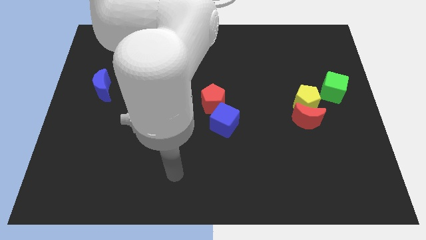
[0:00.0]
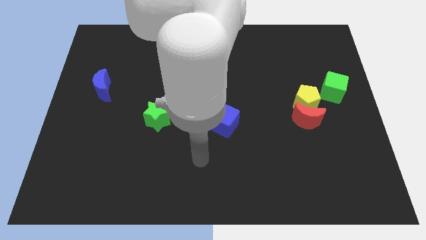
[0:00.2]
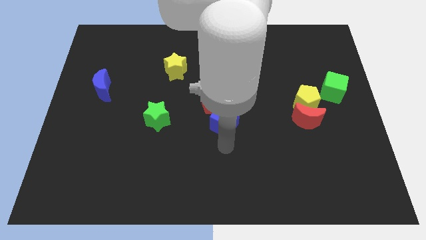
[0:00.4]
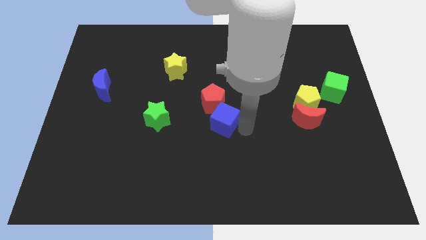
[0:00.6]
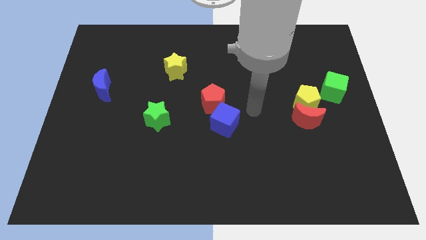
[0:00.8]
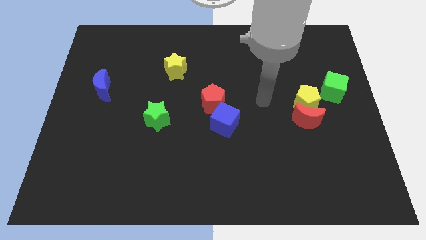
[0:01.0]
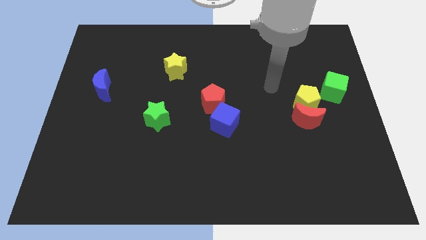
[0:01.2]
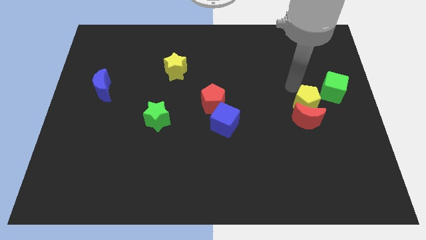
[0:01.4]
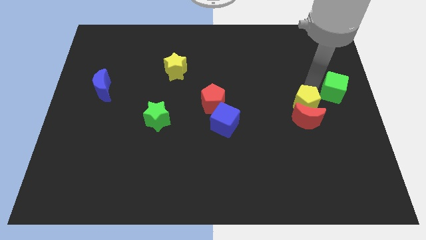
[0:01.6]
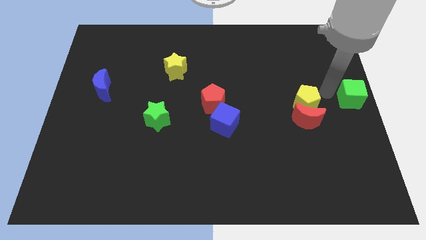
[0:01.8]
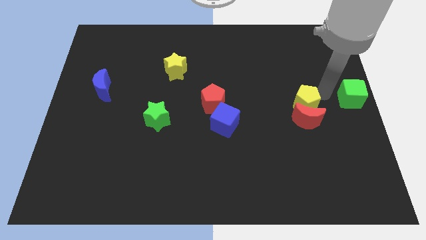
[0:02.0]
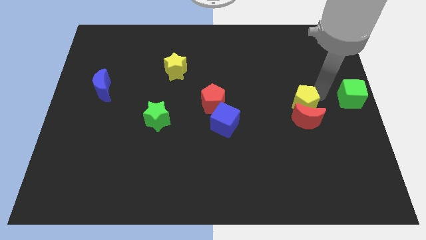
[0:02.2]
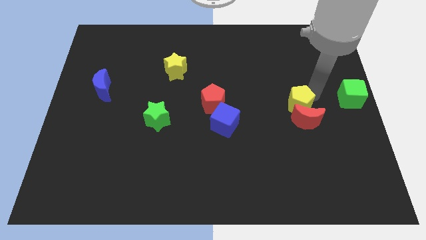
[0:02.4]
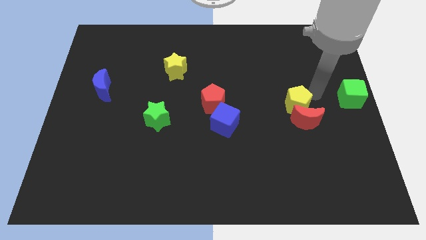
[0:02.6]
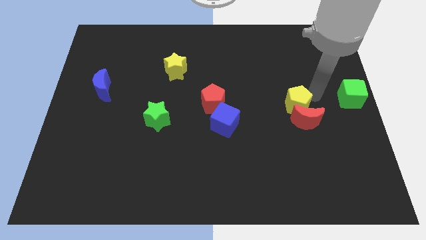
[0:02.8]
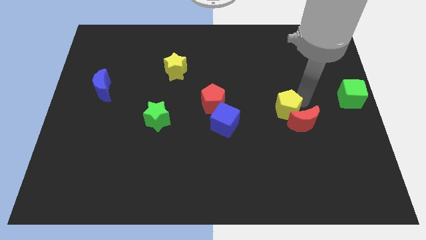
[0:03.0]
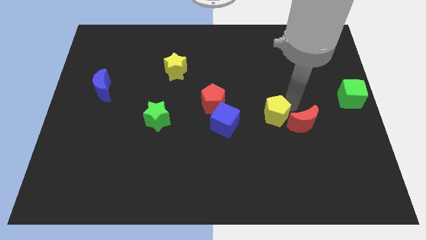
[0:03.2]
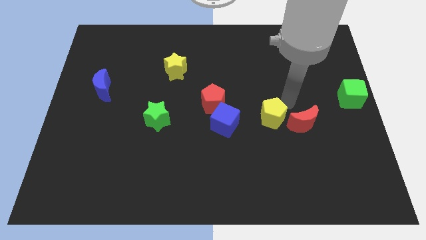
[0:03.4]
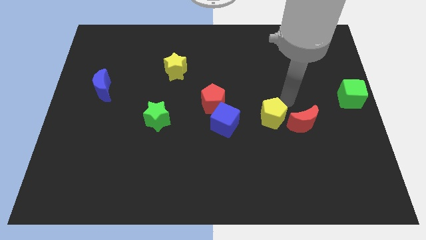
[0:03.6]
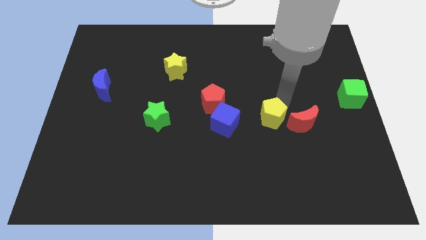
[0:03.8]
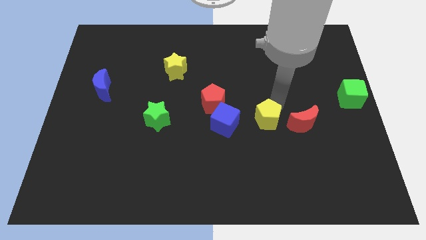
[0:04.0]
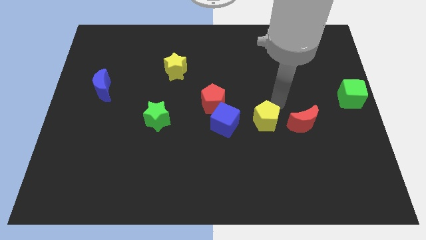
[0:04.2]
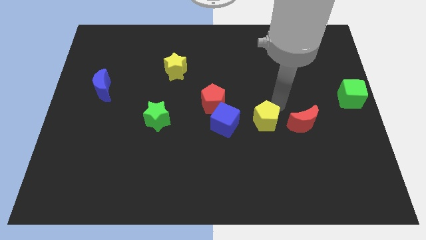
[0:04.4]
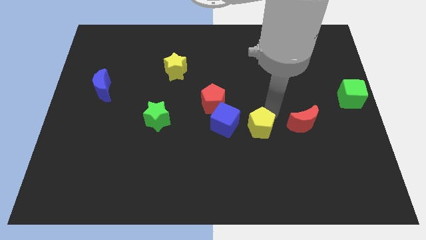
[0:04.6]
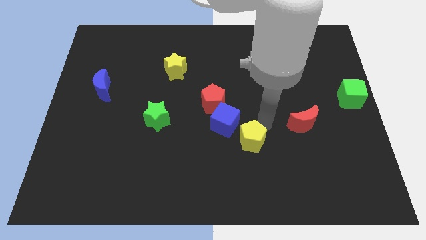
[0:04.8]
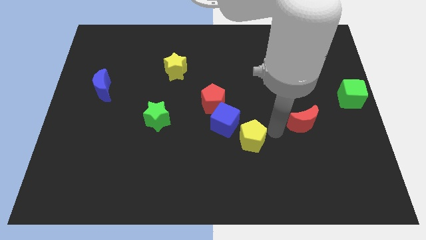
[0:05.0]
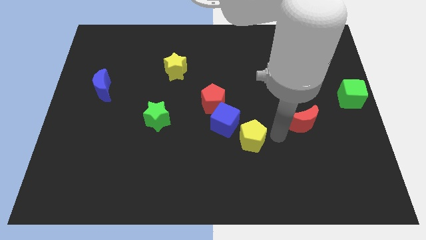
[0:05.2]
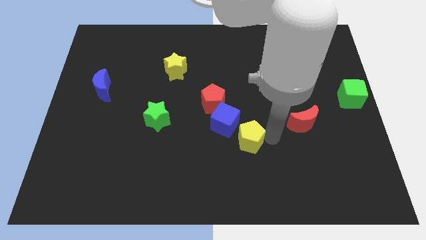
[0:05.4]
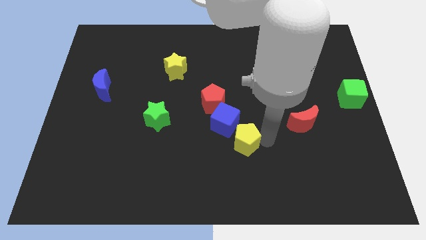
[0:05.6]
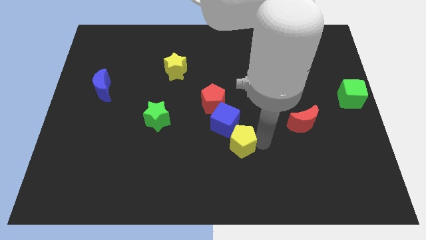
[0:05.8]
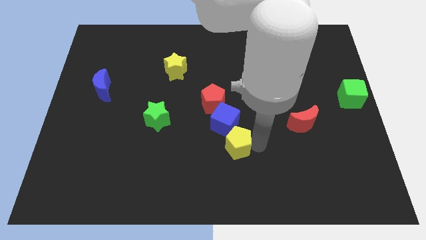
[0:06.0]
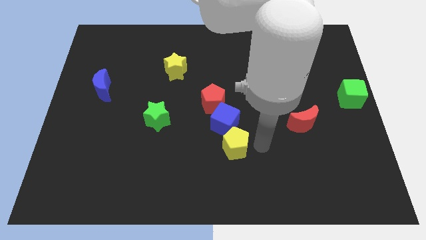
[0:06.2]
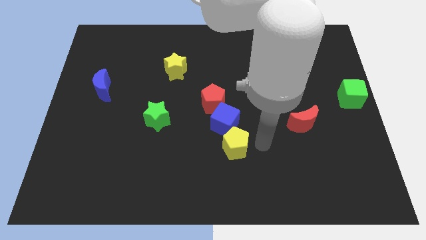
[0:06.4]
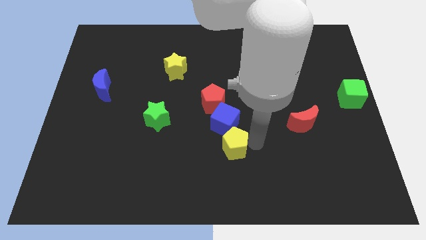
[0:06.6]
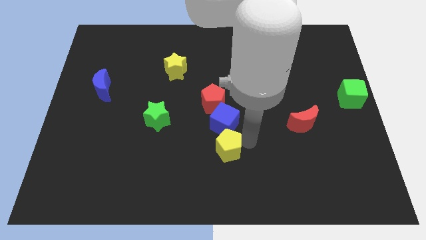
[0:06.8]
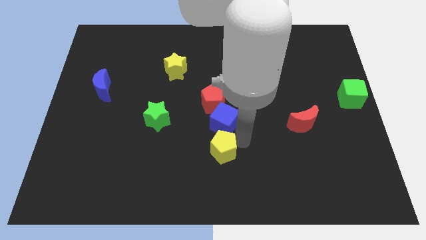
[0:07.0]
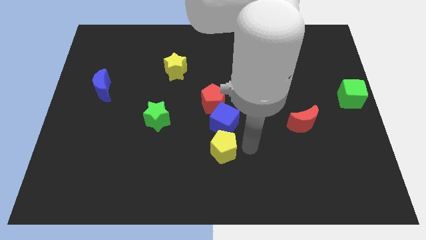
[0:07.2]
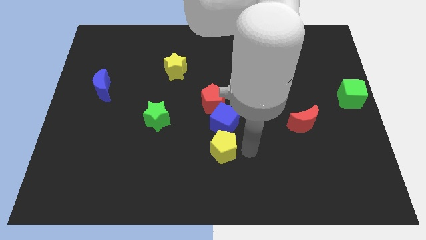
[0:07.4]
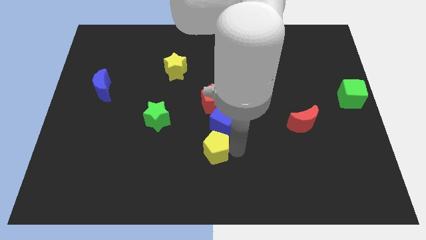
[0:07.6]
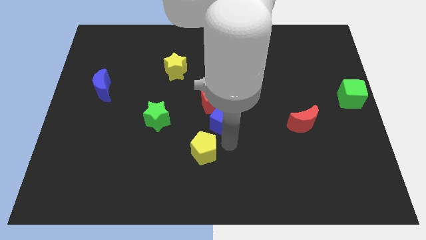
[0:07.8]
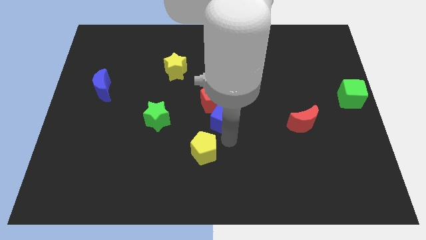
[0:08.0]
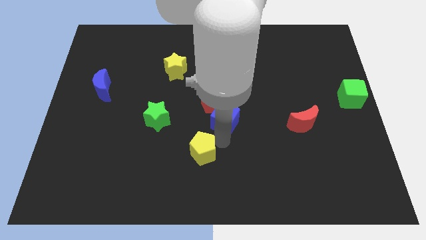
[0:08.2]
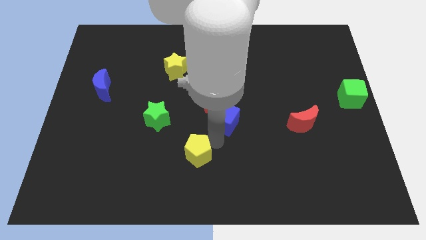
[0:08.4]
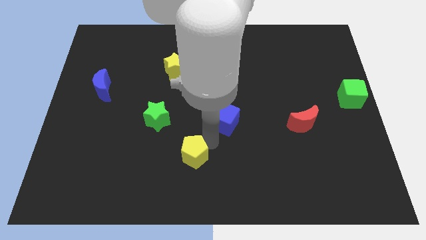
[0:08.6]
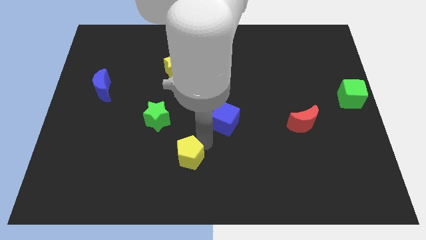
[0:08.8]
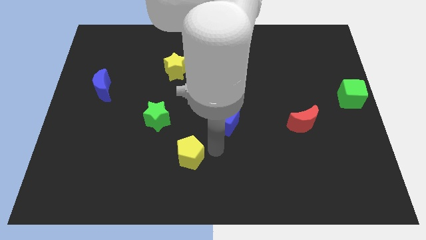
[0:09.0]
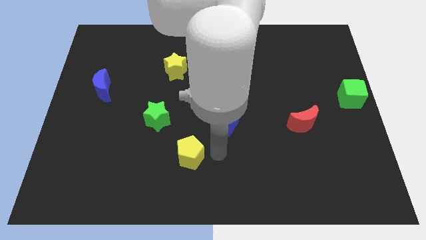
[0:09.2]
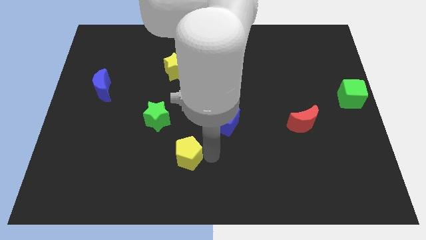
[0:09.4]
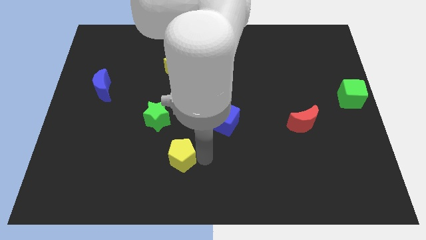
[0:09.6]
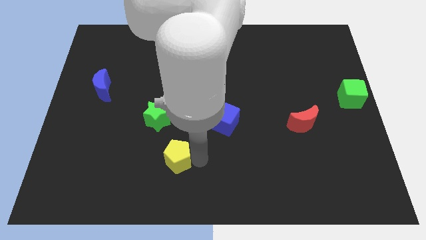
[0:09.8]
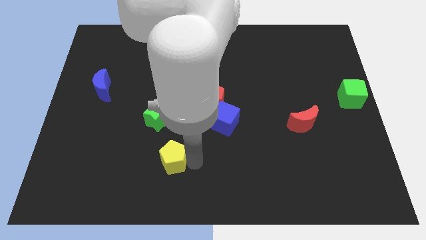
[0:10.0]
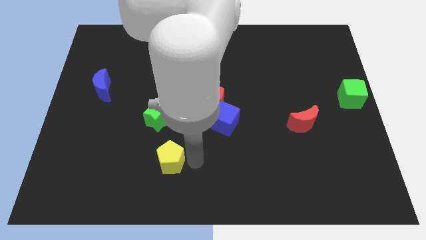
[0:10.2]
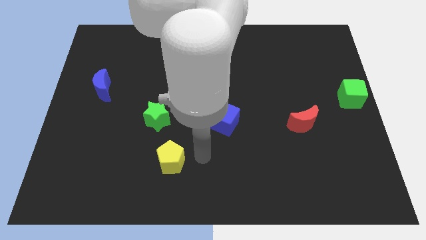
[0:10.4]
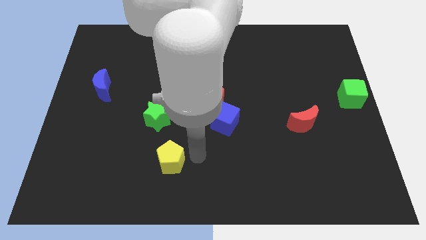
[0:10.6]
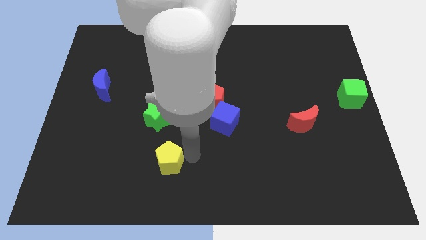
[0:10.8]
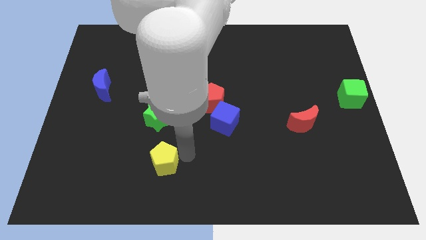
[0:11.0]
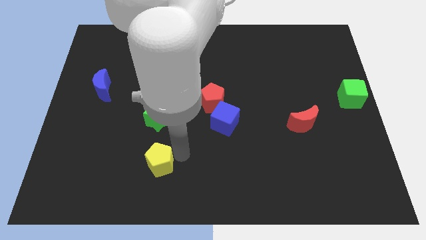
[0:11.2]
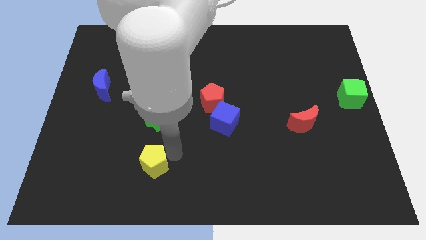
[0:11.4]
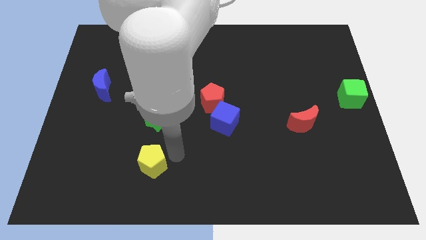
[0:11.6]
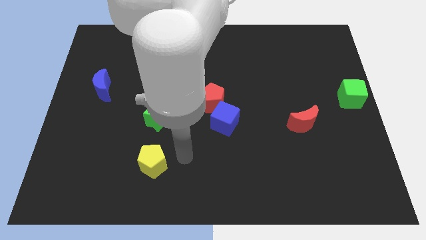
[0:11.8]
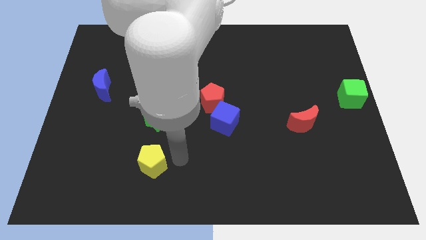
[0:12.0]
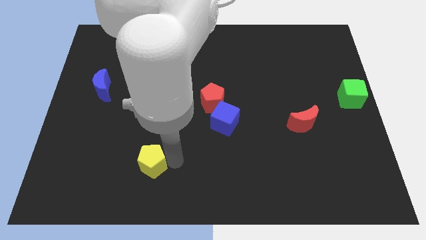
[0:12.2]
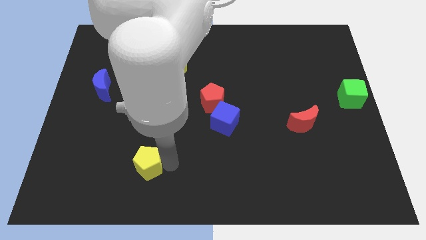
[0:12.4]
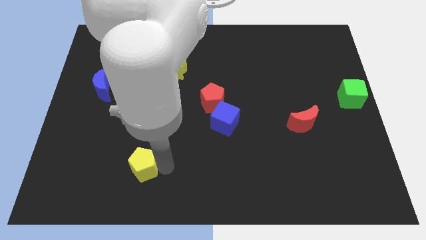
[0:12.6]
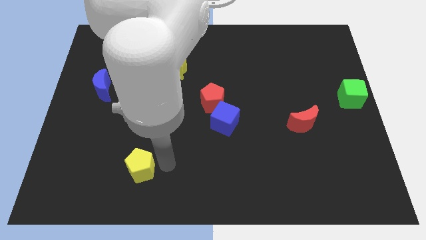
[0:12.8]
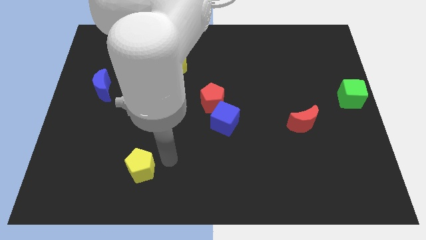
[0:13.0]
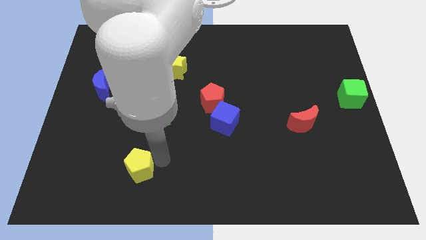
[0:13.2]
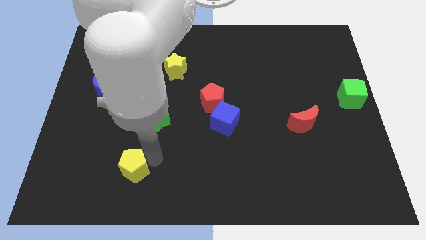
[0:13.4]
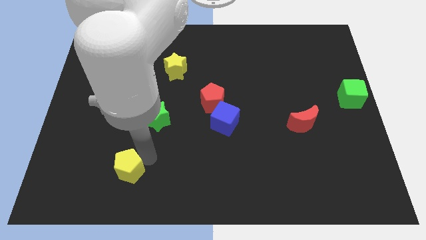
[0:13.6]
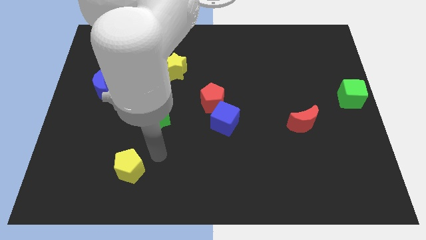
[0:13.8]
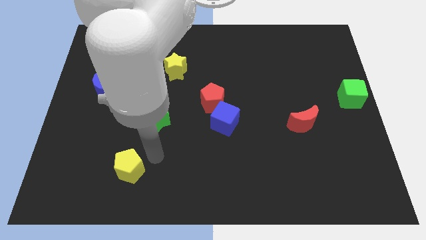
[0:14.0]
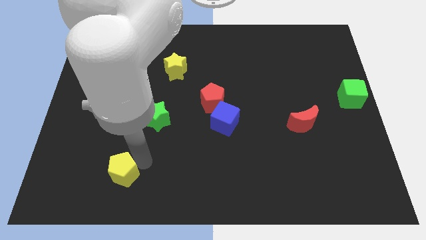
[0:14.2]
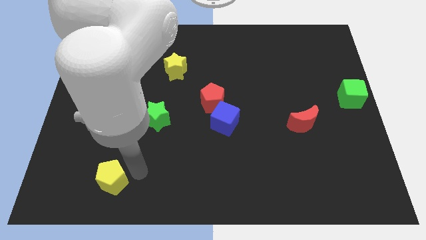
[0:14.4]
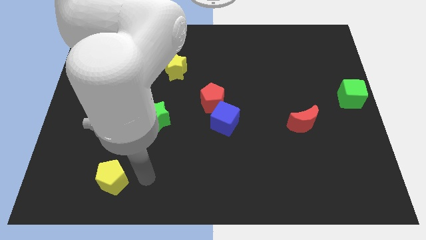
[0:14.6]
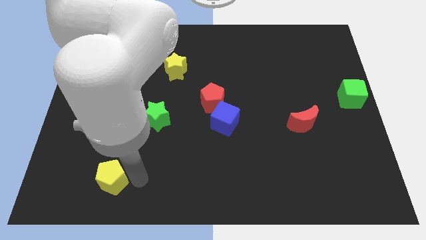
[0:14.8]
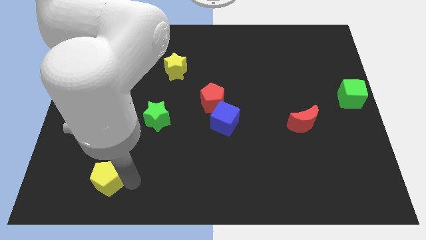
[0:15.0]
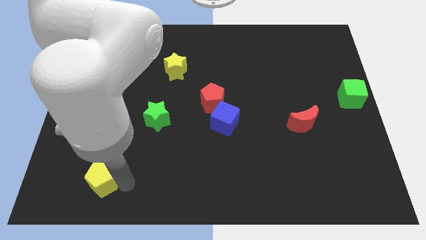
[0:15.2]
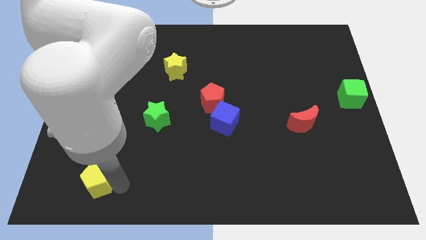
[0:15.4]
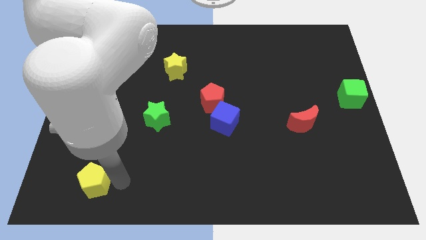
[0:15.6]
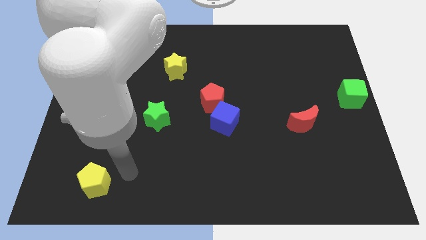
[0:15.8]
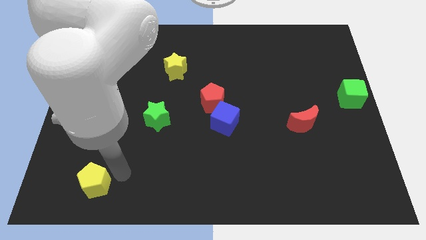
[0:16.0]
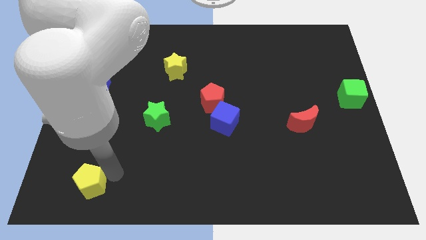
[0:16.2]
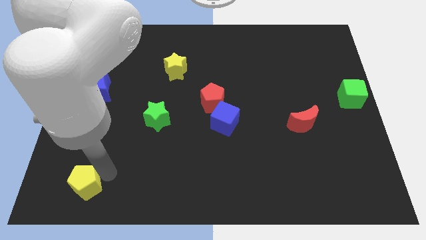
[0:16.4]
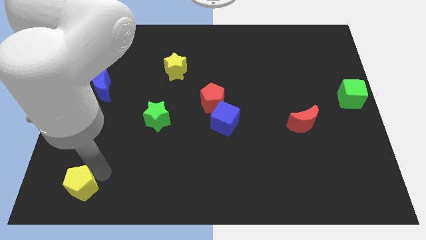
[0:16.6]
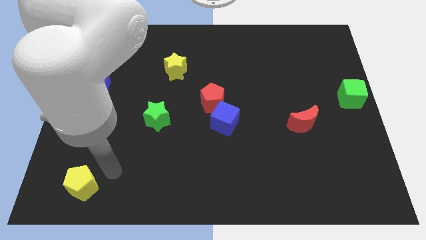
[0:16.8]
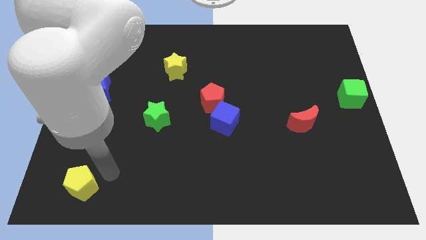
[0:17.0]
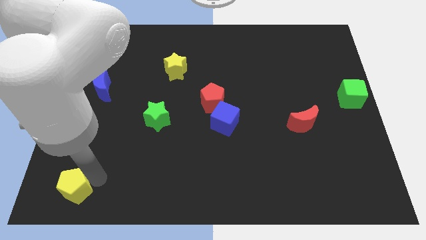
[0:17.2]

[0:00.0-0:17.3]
put the yellow pentagon to the lower left corner
